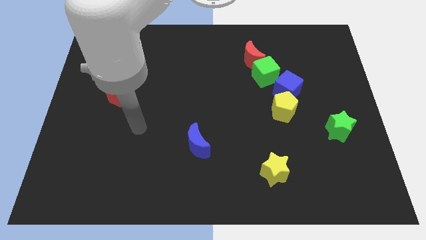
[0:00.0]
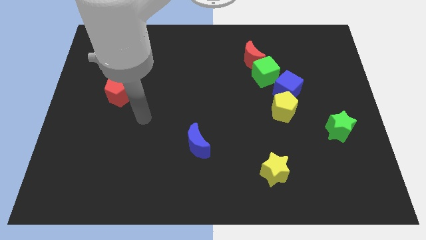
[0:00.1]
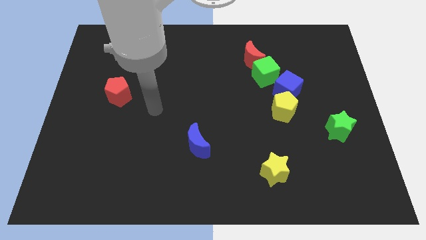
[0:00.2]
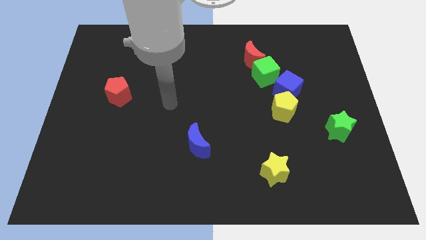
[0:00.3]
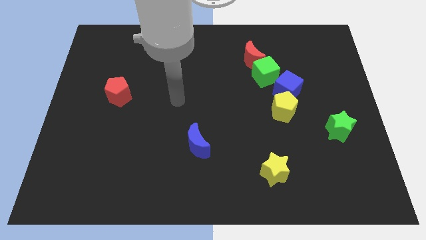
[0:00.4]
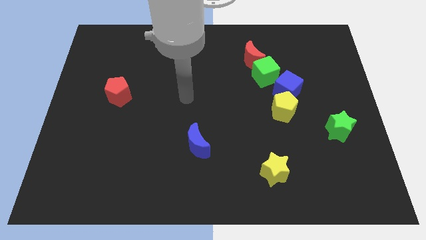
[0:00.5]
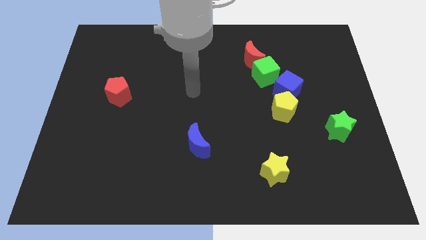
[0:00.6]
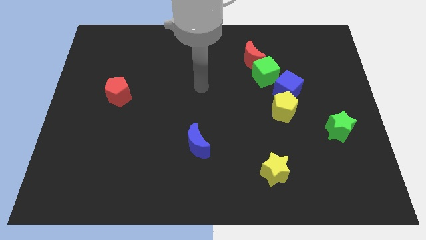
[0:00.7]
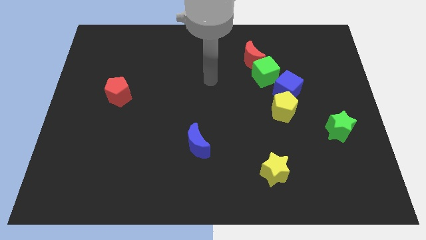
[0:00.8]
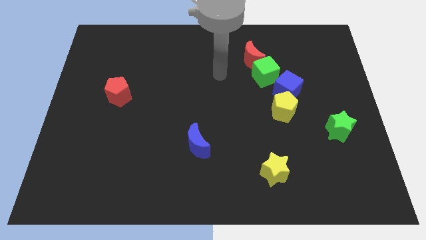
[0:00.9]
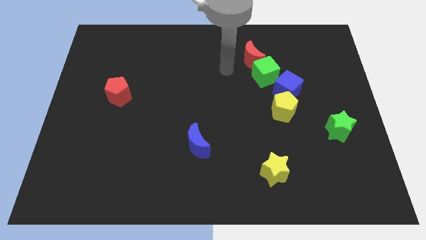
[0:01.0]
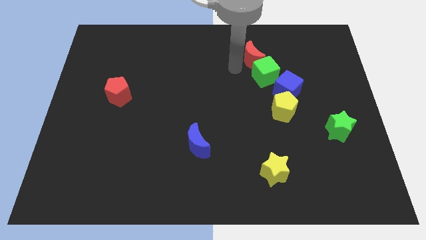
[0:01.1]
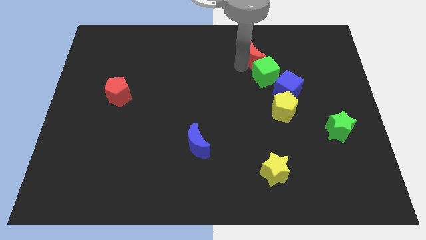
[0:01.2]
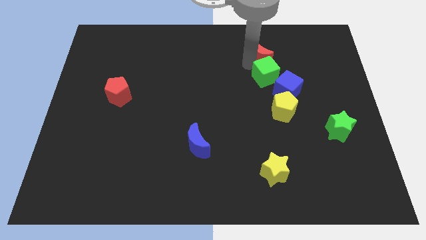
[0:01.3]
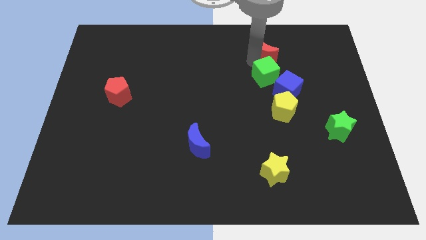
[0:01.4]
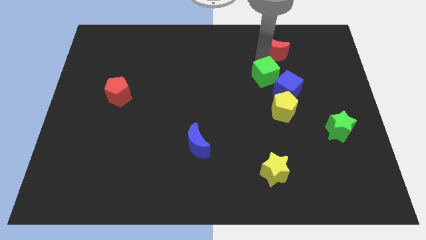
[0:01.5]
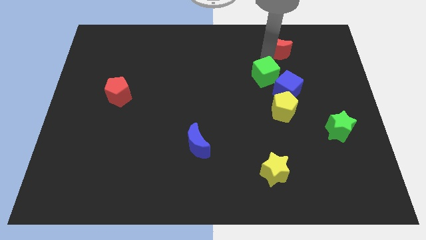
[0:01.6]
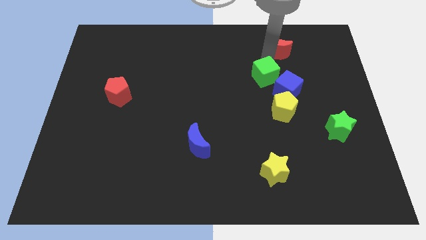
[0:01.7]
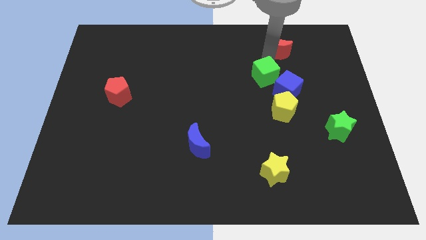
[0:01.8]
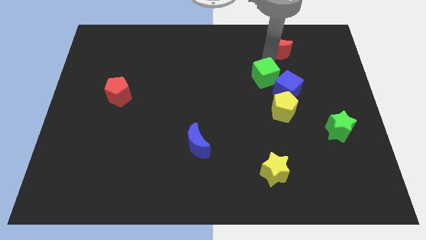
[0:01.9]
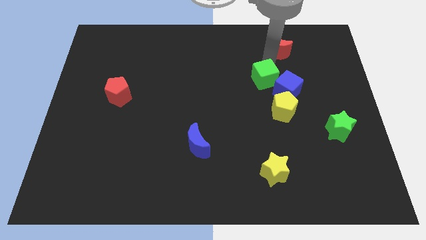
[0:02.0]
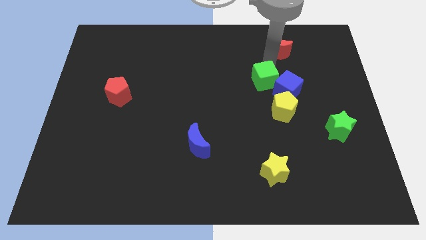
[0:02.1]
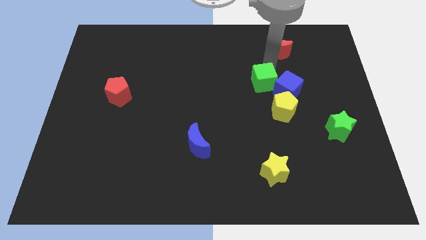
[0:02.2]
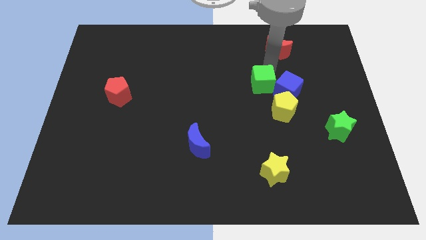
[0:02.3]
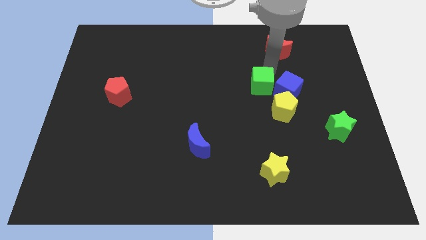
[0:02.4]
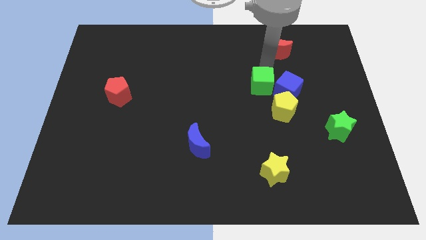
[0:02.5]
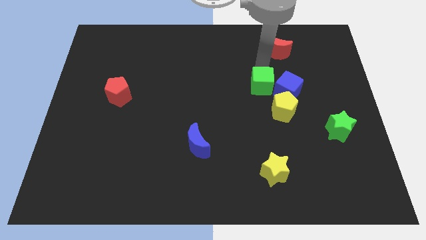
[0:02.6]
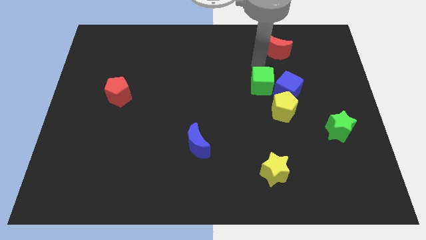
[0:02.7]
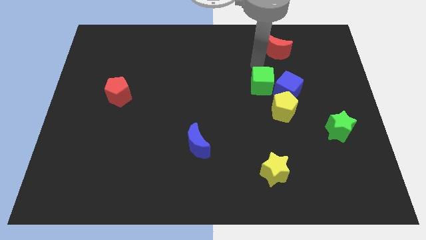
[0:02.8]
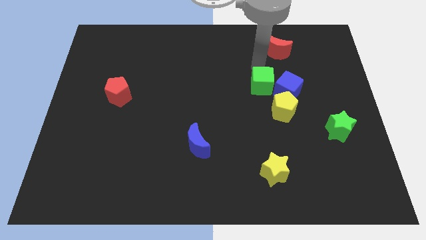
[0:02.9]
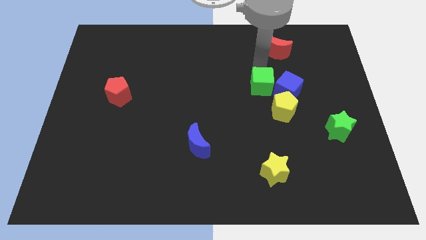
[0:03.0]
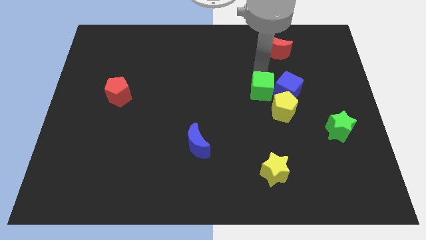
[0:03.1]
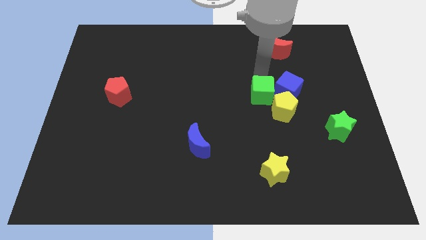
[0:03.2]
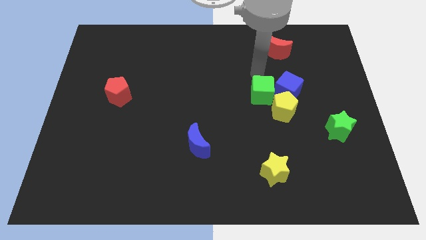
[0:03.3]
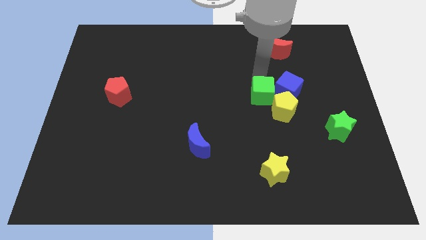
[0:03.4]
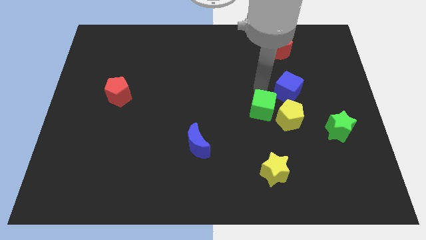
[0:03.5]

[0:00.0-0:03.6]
slide the green cube down slightly

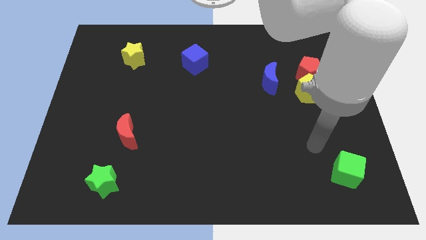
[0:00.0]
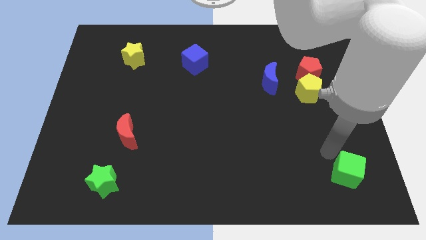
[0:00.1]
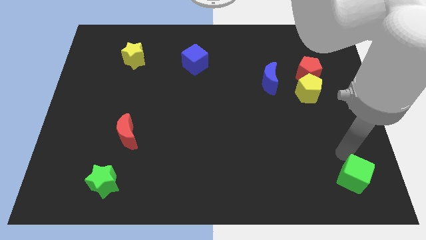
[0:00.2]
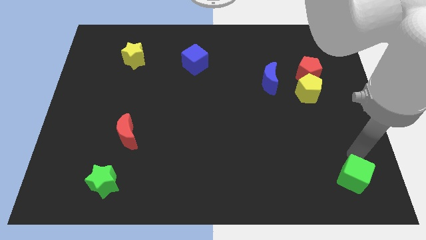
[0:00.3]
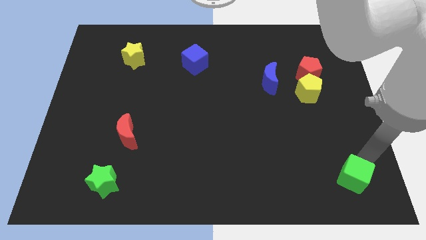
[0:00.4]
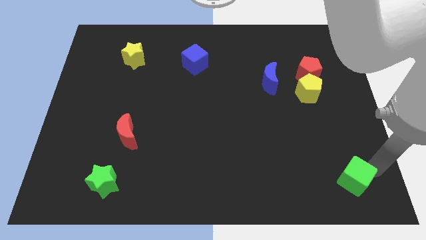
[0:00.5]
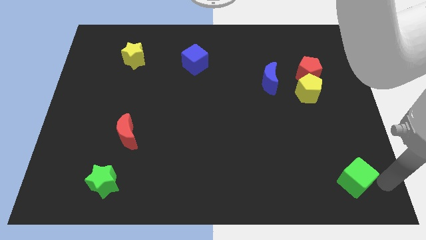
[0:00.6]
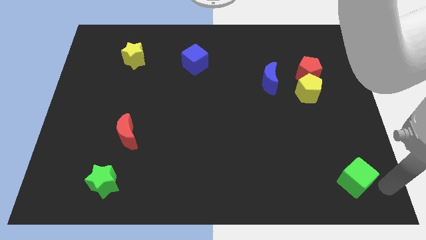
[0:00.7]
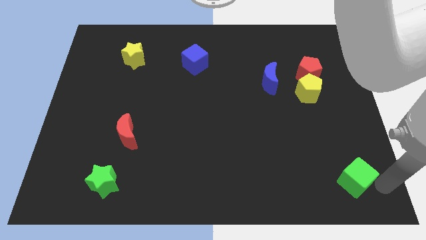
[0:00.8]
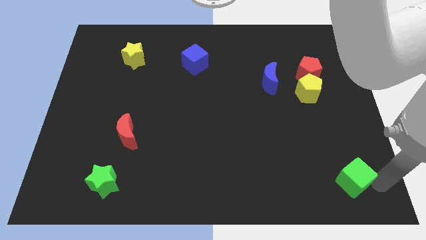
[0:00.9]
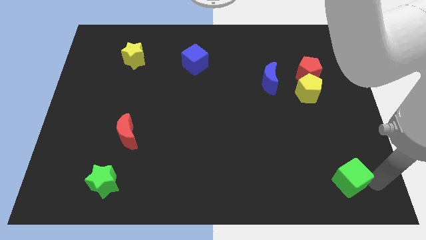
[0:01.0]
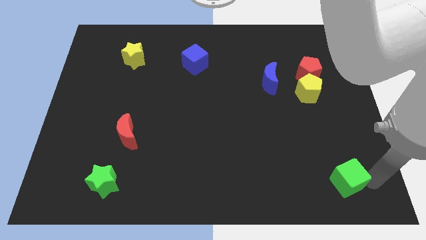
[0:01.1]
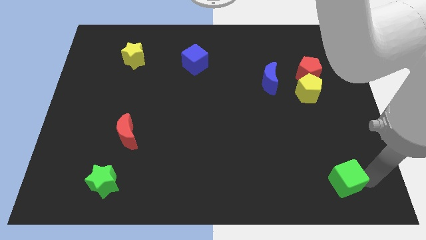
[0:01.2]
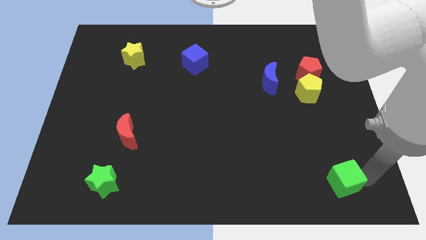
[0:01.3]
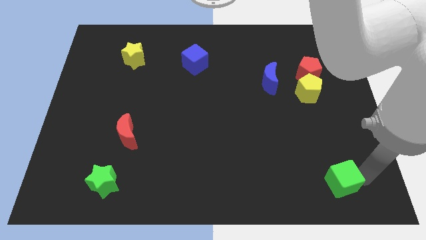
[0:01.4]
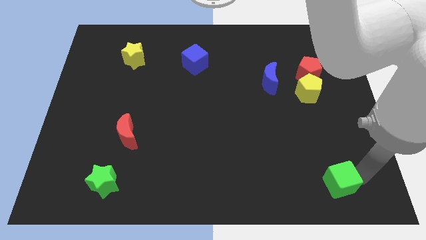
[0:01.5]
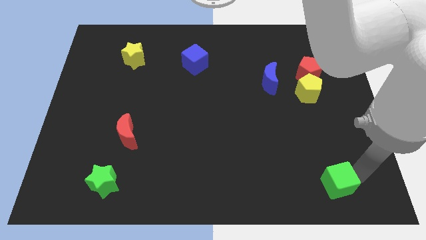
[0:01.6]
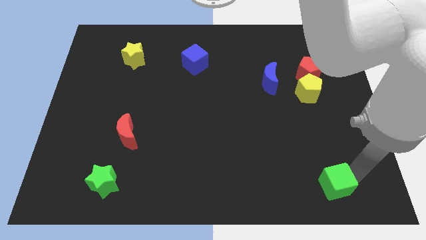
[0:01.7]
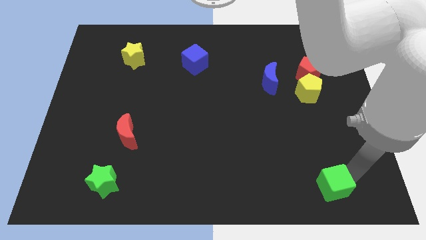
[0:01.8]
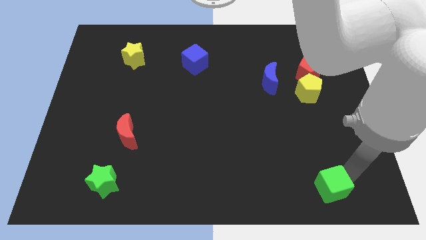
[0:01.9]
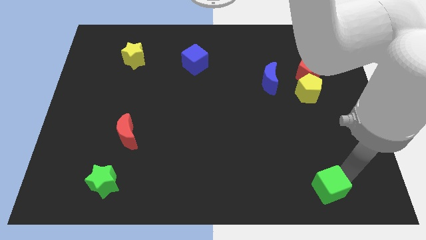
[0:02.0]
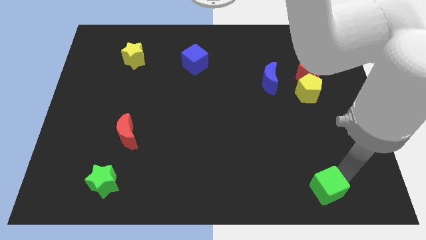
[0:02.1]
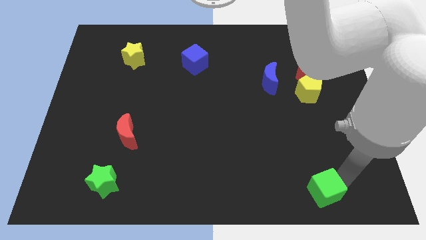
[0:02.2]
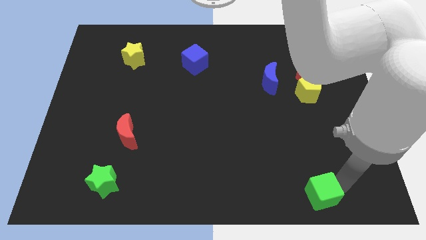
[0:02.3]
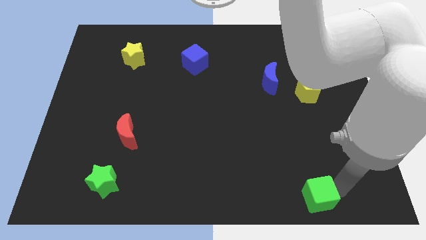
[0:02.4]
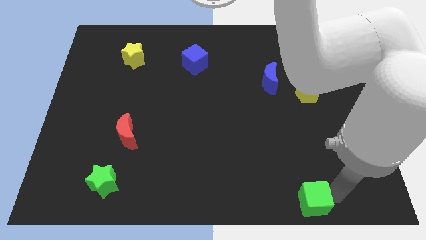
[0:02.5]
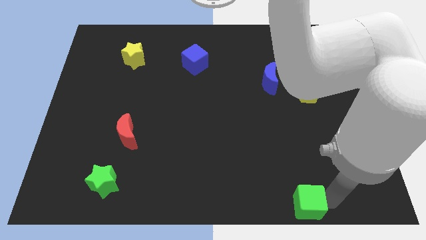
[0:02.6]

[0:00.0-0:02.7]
push the green cube a little to the left

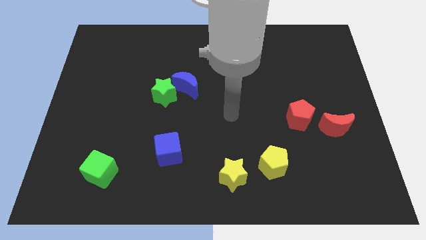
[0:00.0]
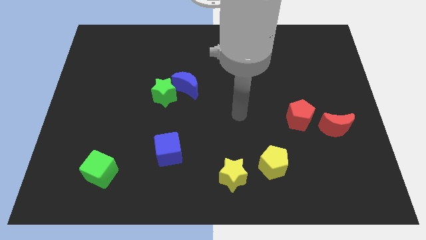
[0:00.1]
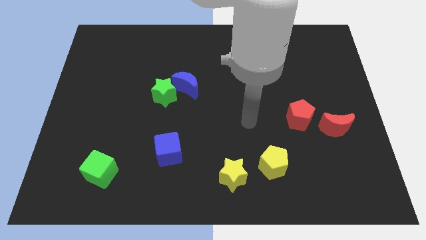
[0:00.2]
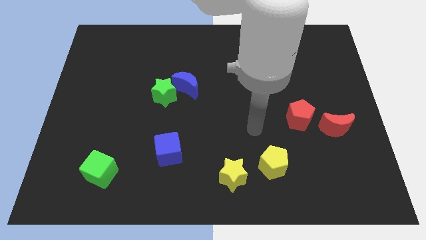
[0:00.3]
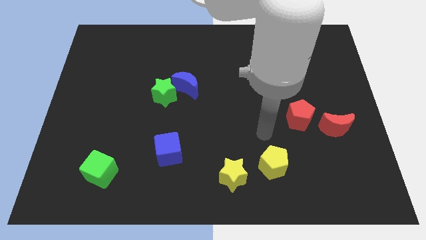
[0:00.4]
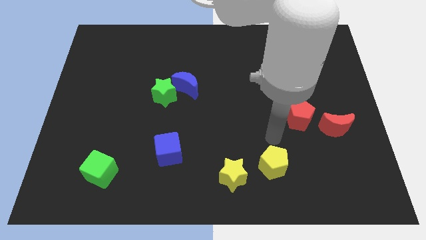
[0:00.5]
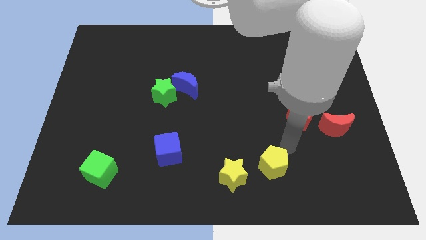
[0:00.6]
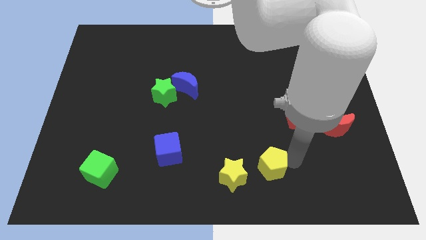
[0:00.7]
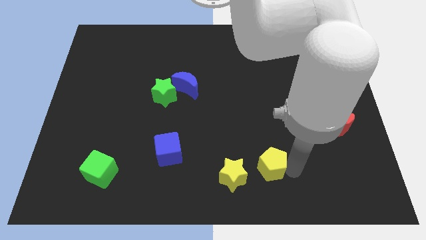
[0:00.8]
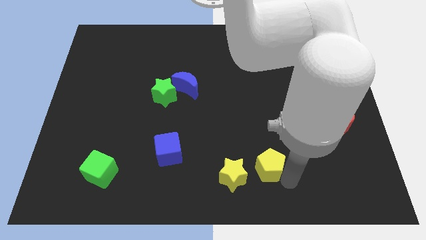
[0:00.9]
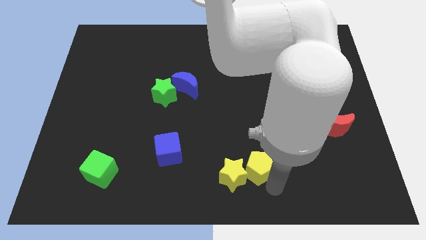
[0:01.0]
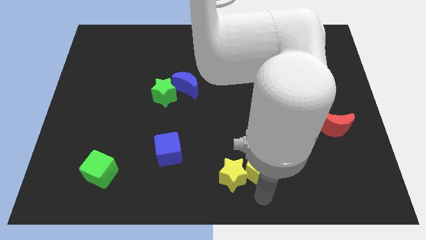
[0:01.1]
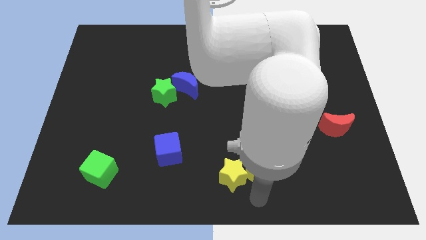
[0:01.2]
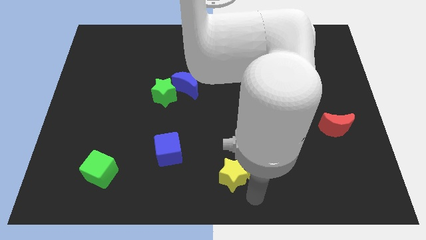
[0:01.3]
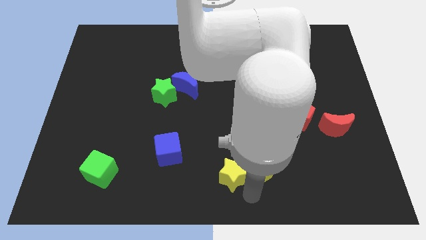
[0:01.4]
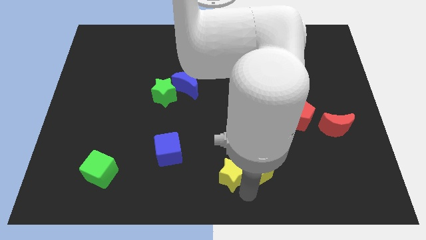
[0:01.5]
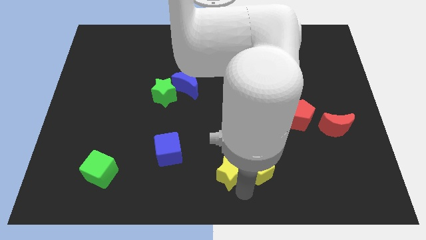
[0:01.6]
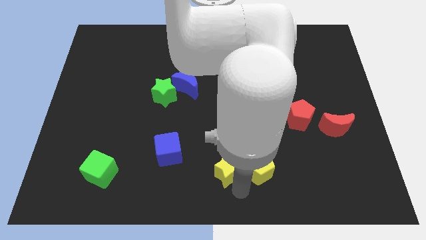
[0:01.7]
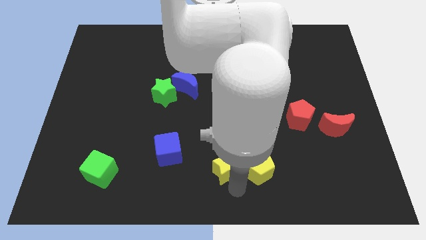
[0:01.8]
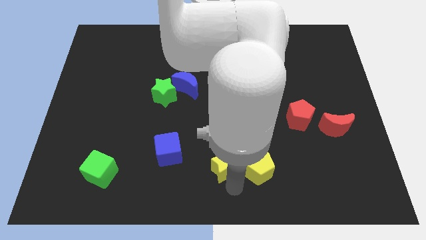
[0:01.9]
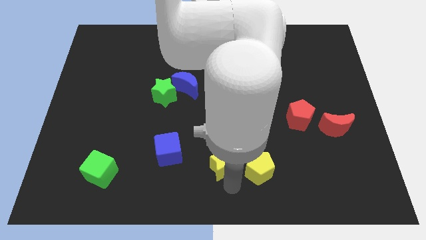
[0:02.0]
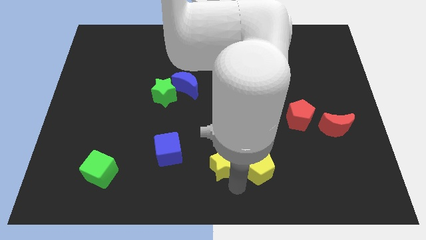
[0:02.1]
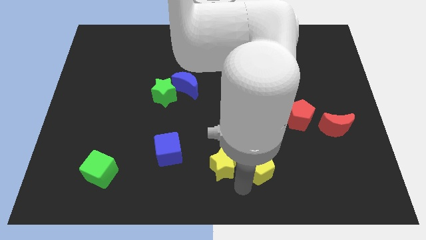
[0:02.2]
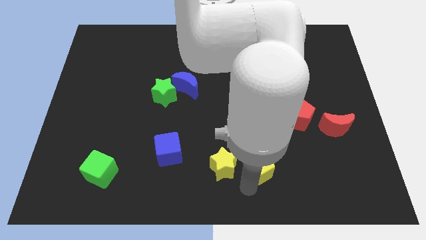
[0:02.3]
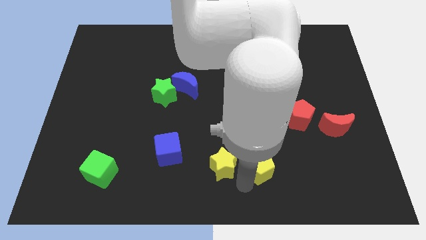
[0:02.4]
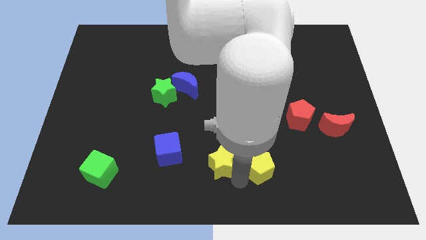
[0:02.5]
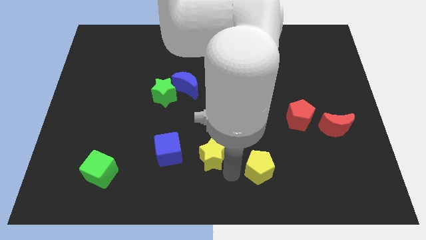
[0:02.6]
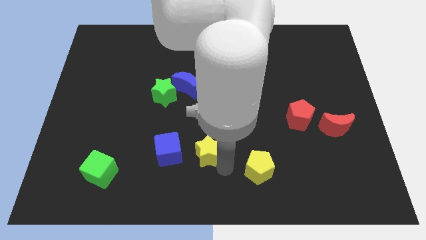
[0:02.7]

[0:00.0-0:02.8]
push the yellow star somewhat upwards and to the left diagonally
